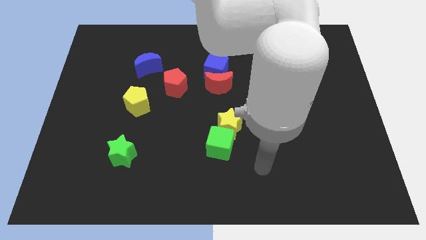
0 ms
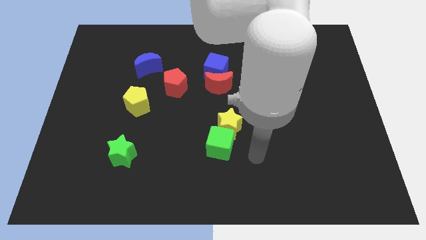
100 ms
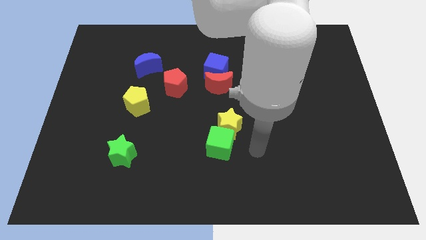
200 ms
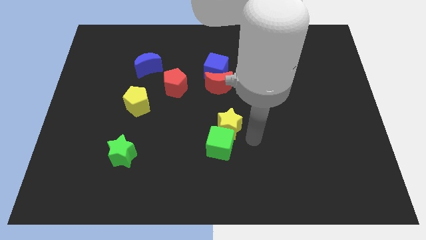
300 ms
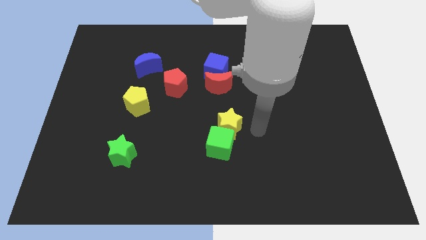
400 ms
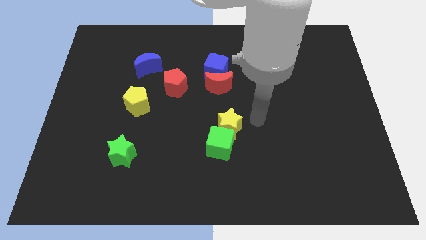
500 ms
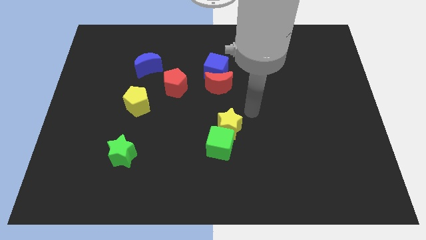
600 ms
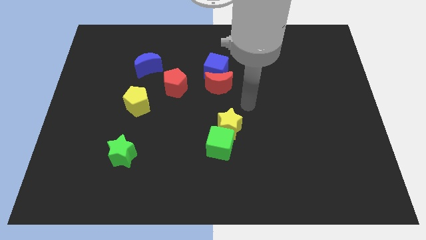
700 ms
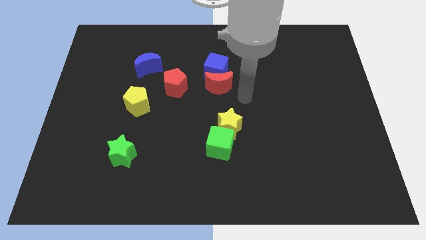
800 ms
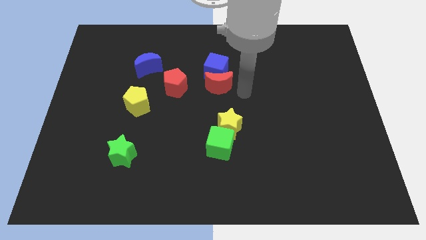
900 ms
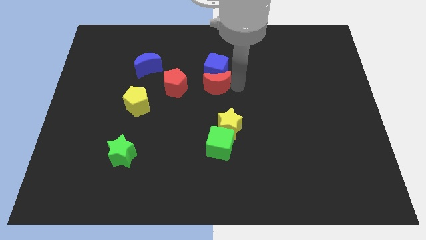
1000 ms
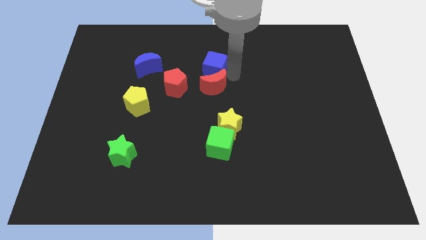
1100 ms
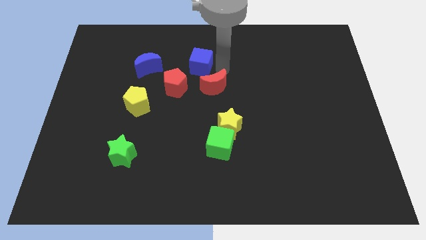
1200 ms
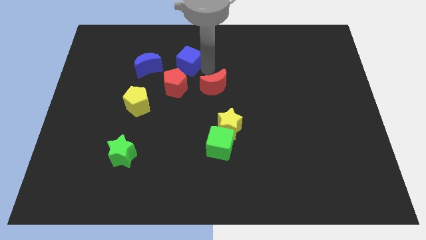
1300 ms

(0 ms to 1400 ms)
move the red moon away from the blue cube

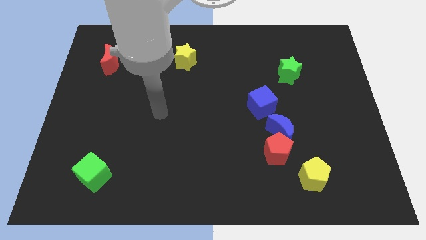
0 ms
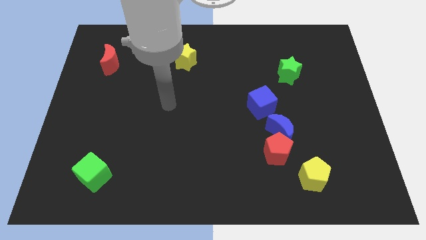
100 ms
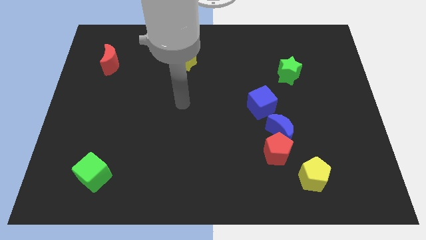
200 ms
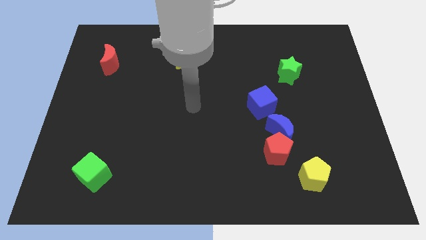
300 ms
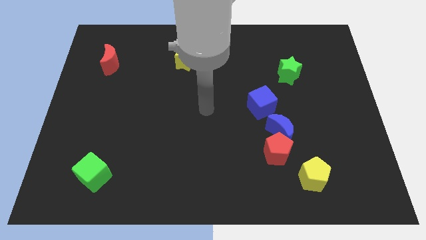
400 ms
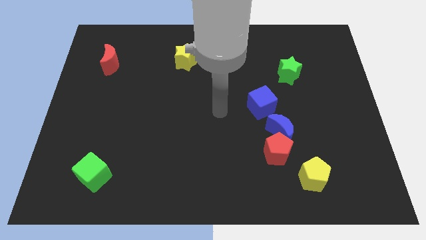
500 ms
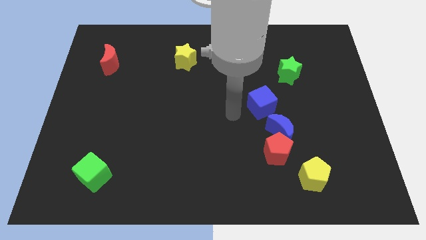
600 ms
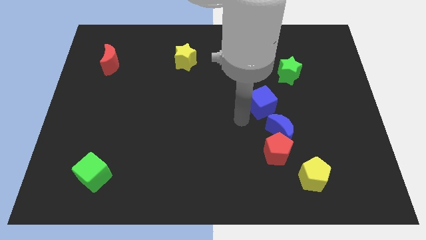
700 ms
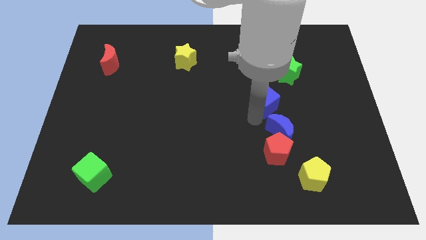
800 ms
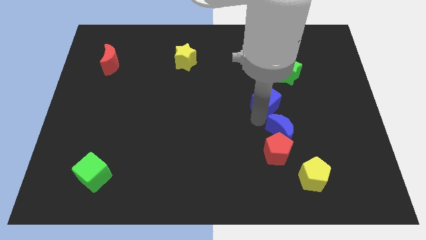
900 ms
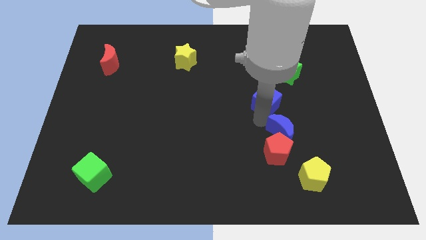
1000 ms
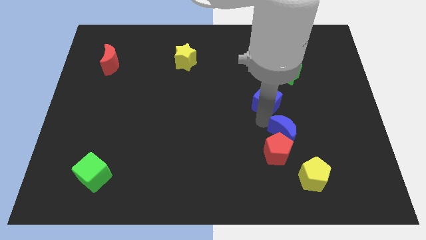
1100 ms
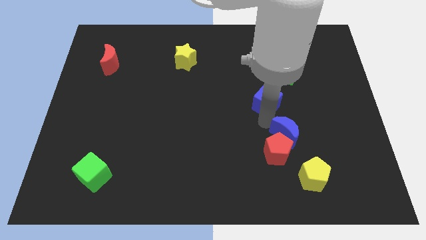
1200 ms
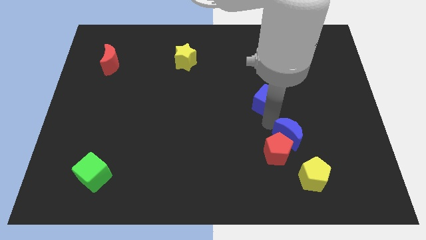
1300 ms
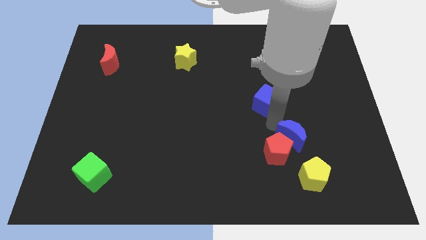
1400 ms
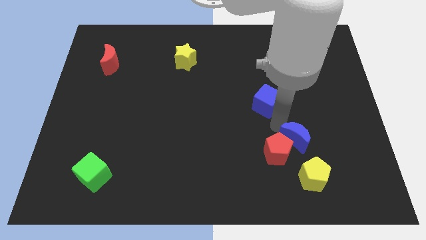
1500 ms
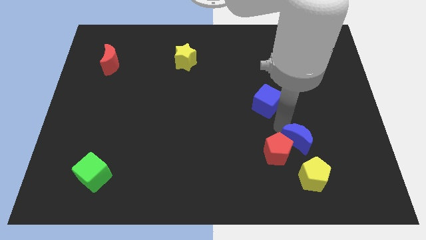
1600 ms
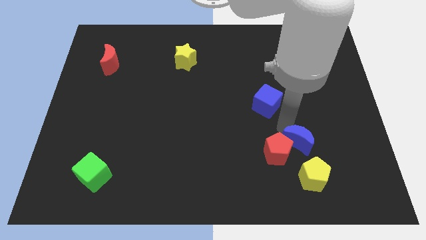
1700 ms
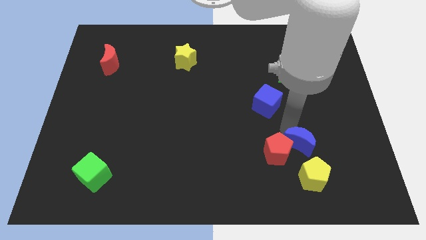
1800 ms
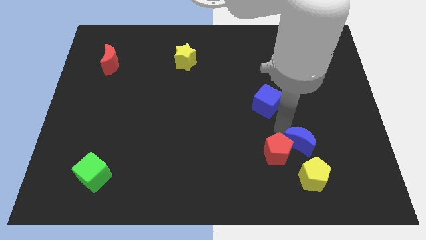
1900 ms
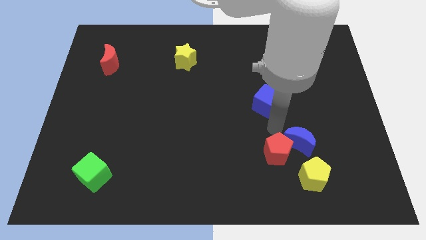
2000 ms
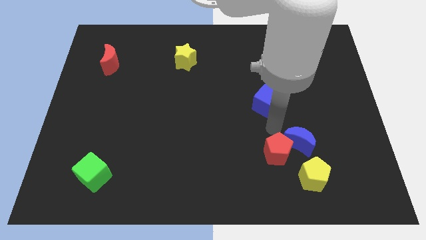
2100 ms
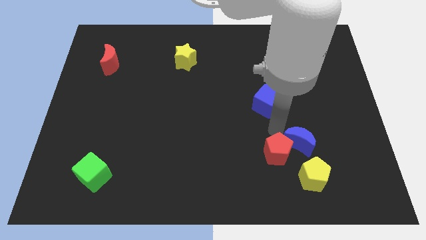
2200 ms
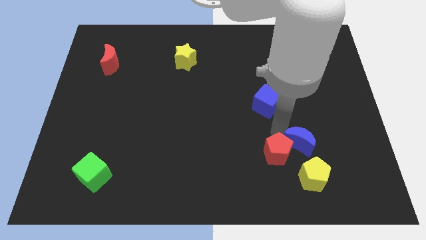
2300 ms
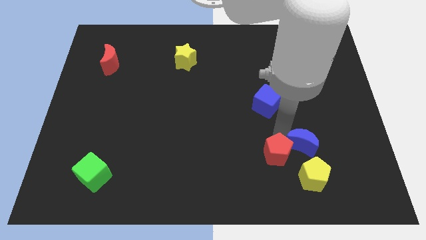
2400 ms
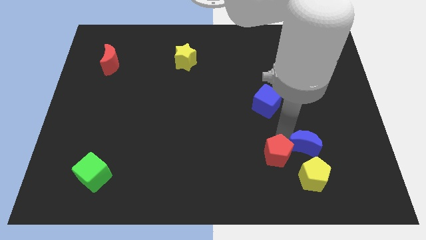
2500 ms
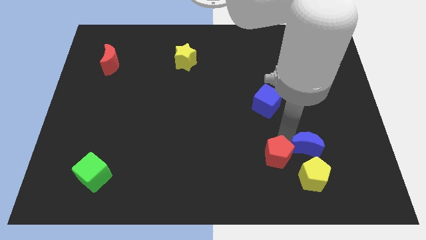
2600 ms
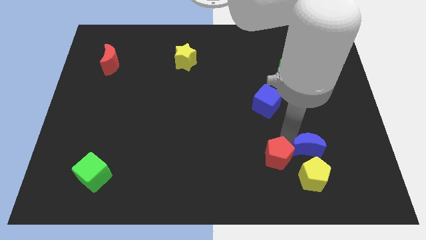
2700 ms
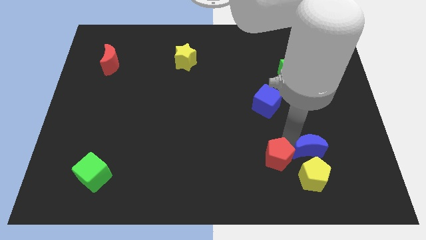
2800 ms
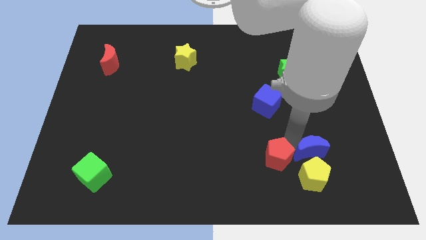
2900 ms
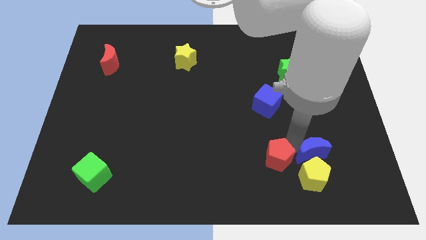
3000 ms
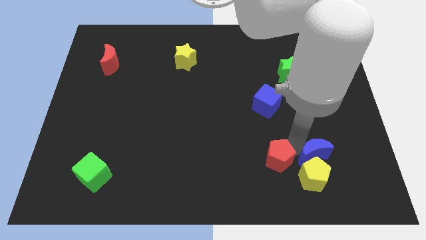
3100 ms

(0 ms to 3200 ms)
move the blue moon away from the red pentagon and blue cube

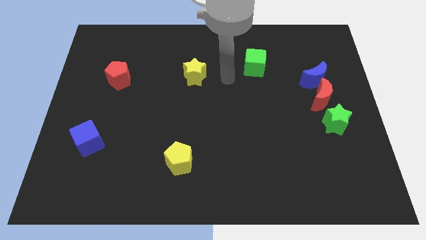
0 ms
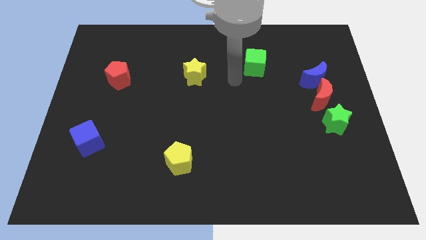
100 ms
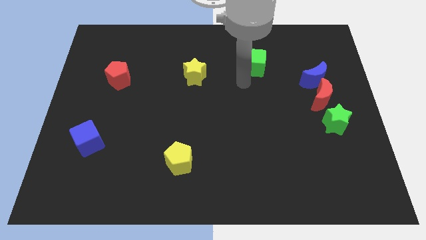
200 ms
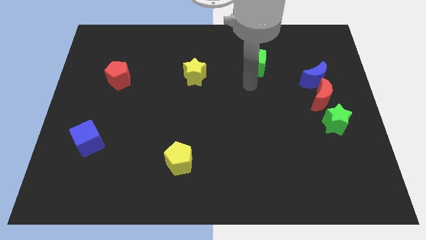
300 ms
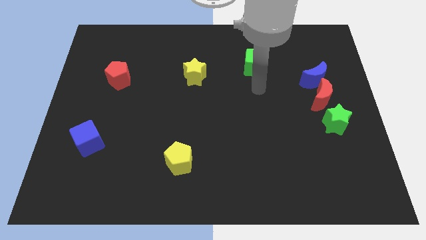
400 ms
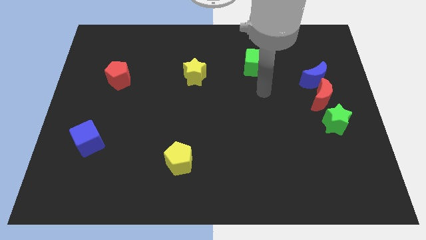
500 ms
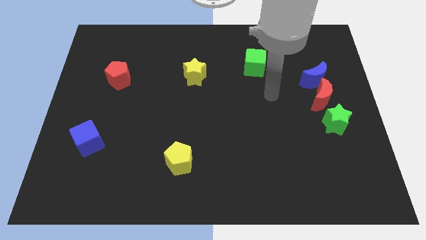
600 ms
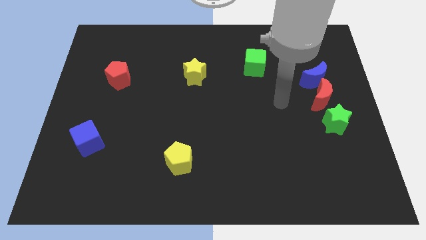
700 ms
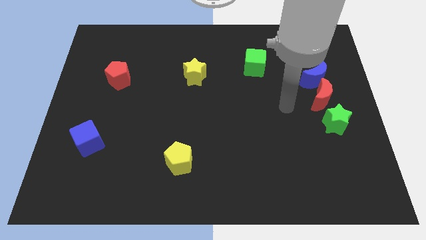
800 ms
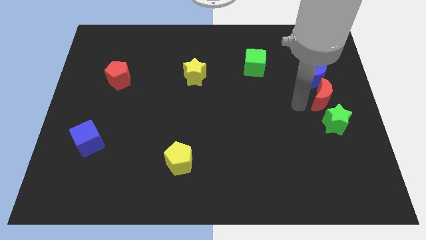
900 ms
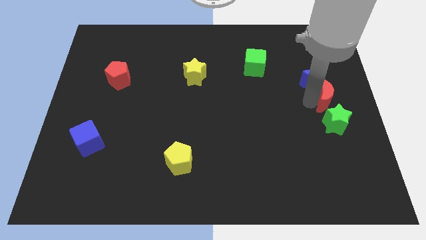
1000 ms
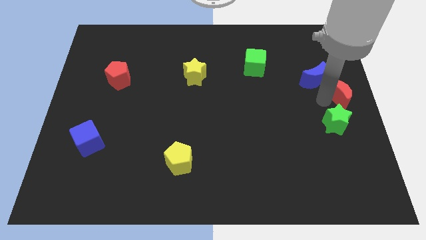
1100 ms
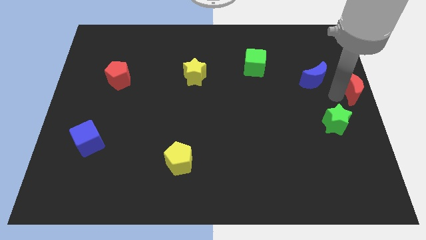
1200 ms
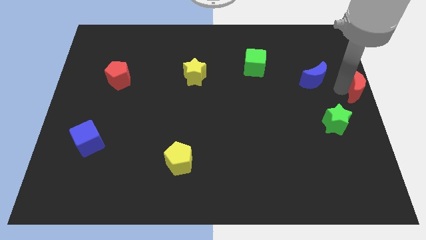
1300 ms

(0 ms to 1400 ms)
pull the blue moon apart from the red moon

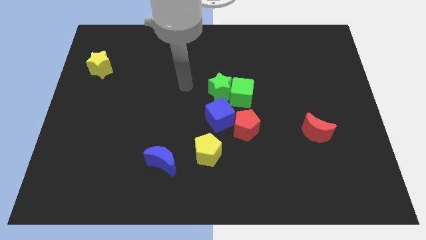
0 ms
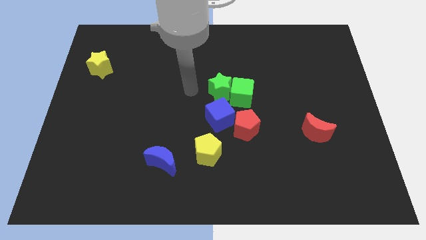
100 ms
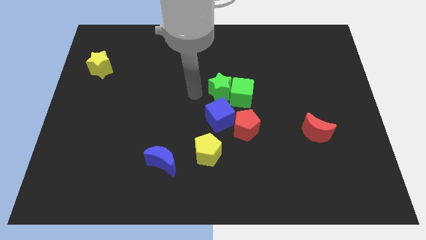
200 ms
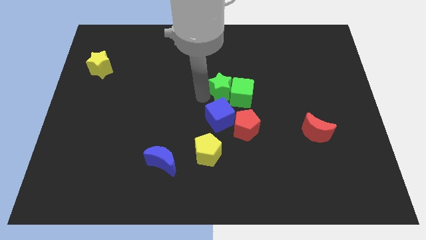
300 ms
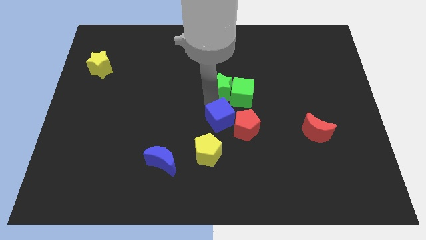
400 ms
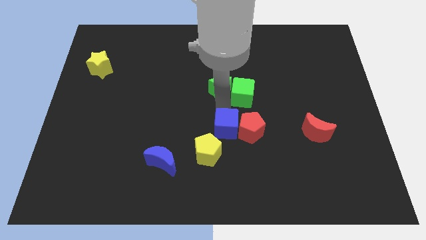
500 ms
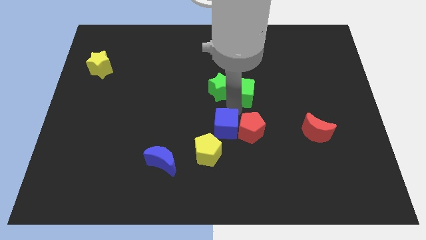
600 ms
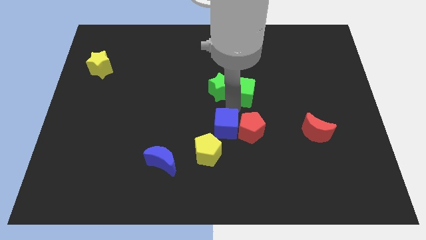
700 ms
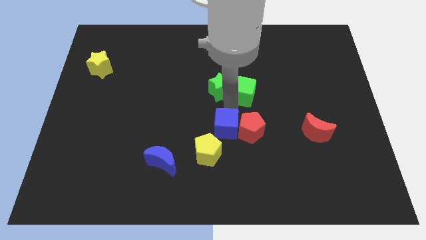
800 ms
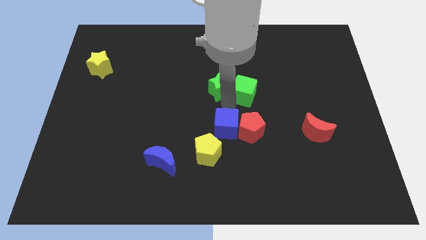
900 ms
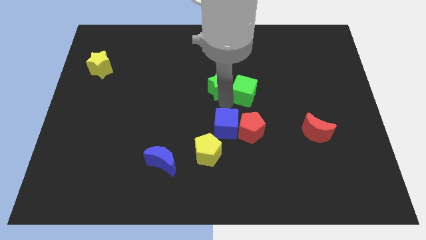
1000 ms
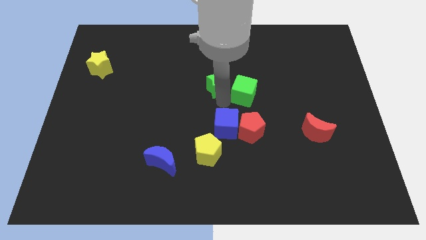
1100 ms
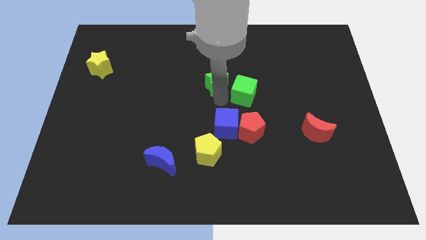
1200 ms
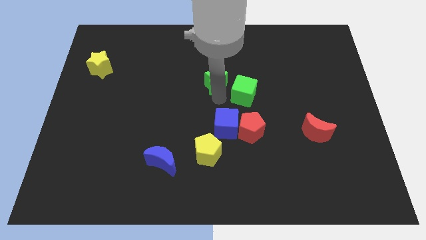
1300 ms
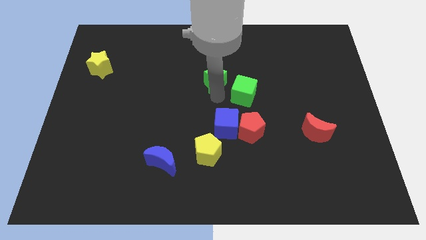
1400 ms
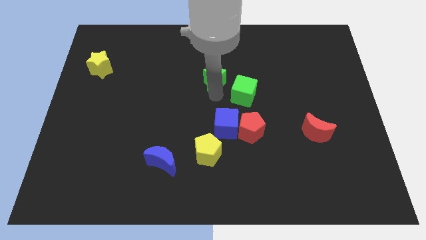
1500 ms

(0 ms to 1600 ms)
pull the green star apart from the green cube and blue cube

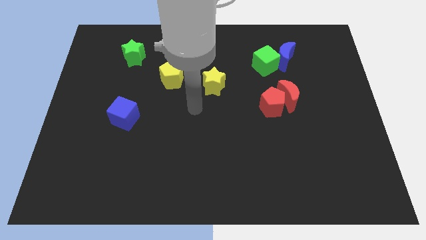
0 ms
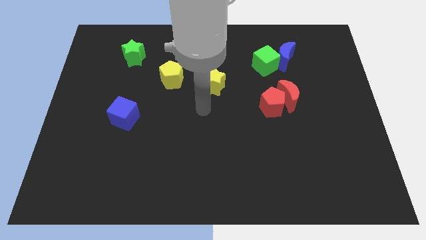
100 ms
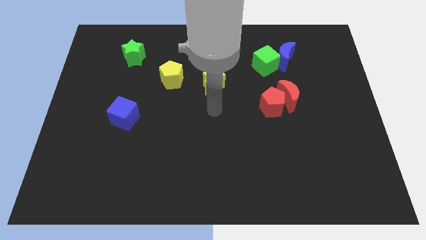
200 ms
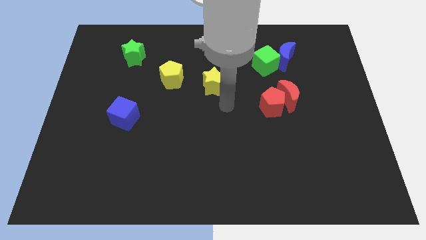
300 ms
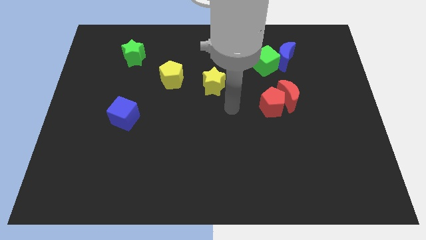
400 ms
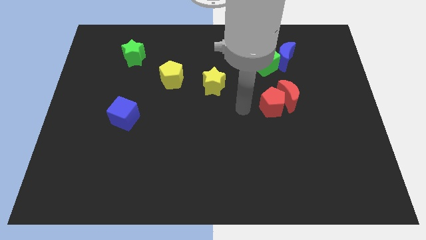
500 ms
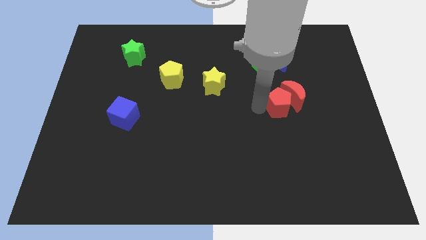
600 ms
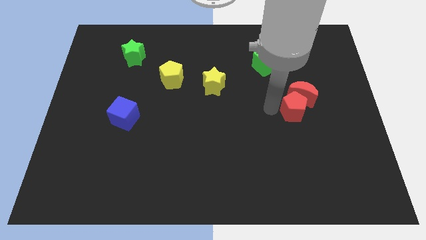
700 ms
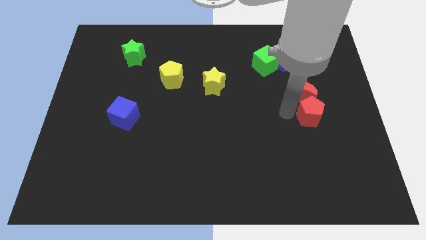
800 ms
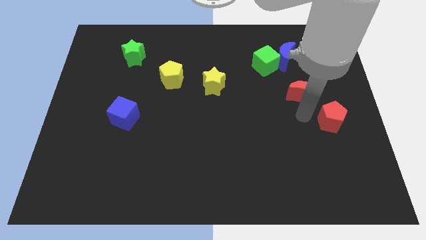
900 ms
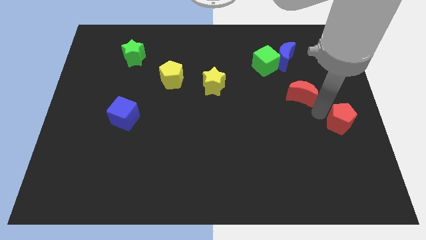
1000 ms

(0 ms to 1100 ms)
move the red moon away from the red pentagon

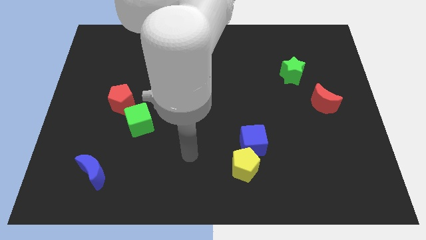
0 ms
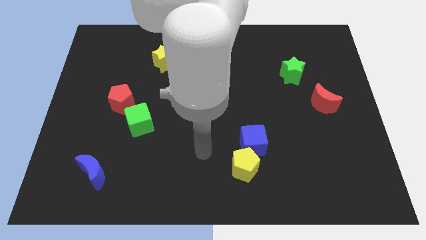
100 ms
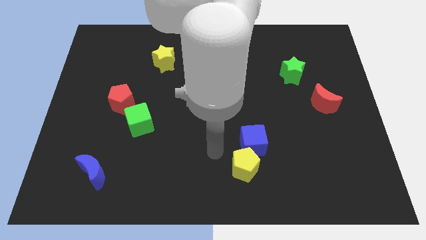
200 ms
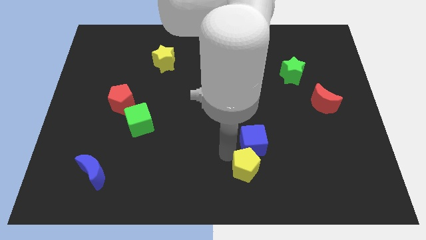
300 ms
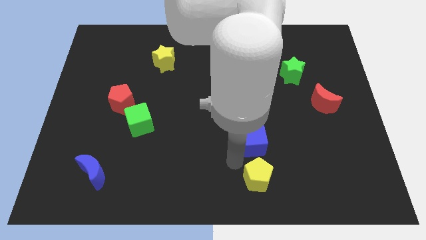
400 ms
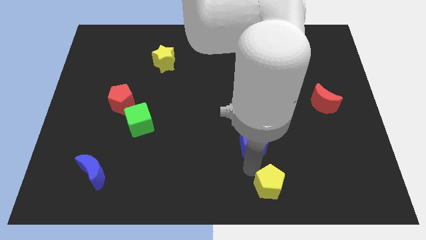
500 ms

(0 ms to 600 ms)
pull the blue cube apart from the yellow pentagon

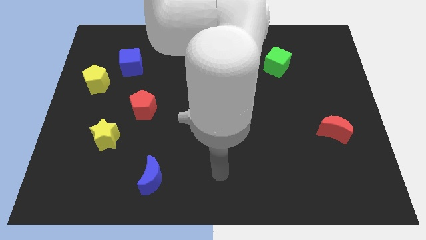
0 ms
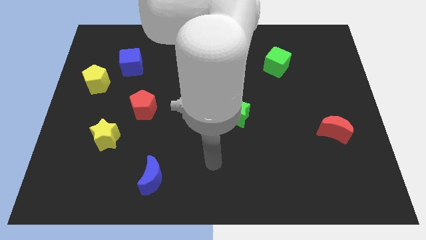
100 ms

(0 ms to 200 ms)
separate the blue cube from the yellow pentagon
